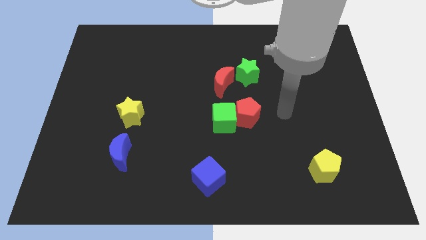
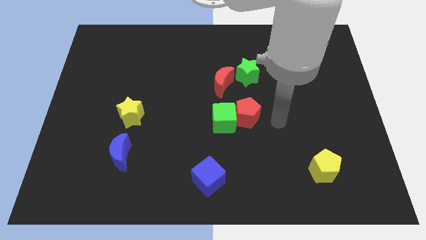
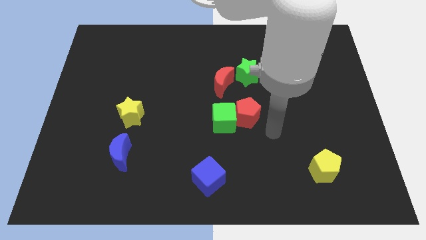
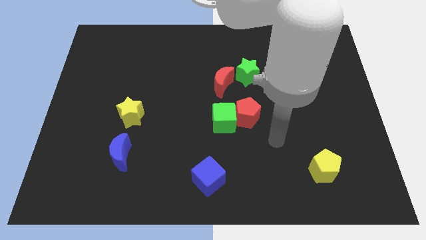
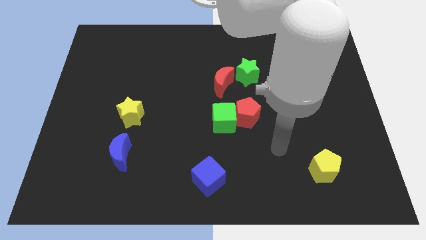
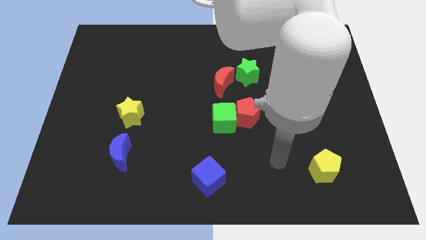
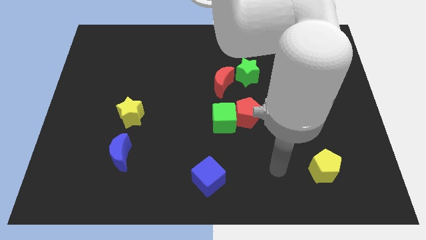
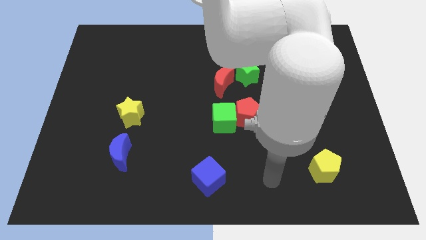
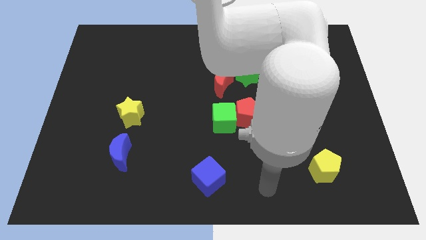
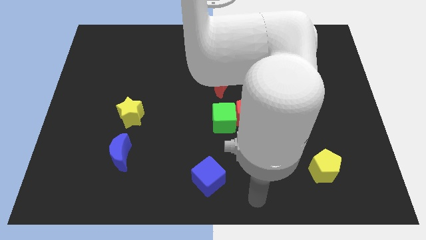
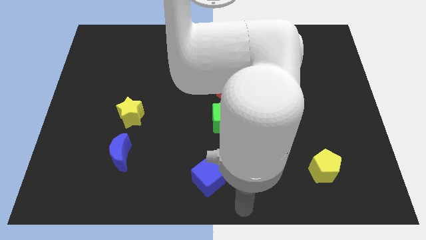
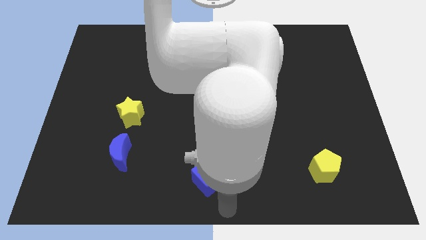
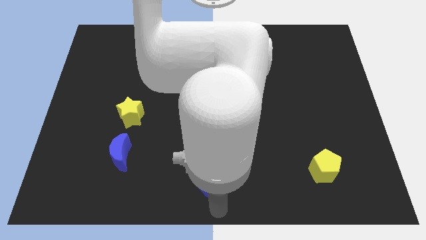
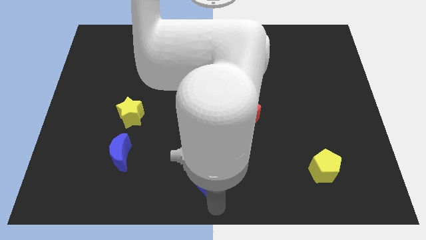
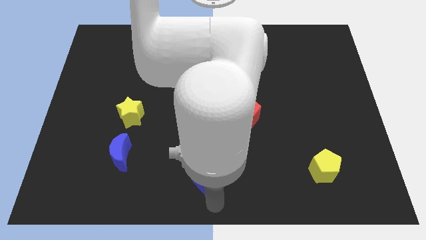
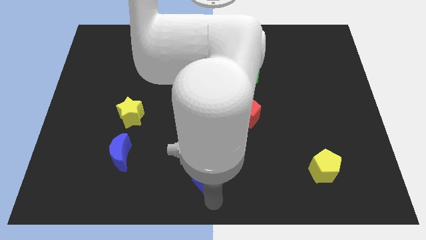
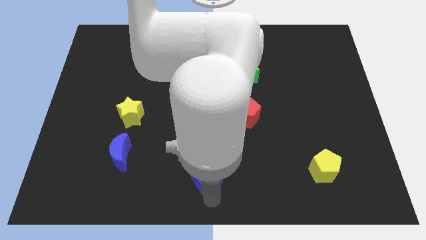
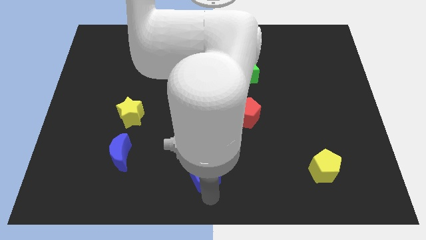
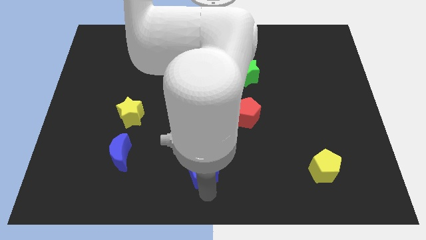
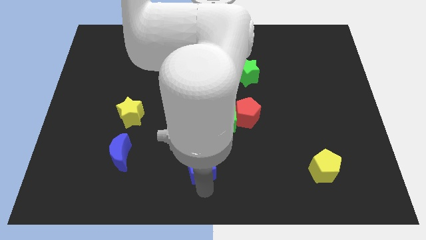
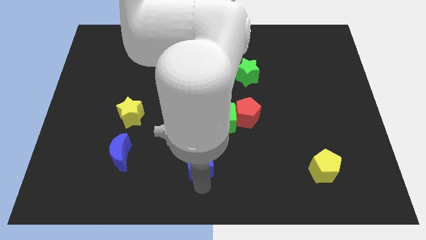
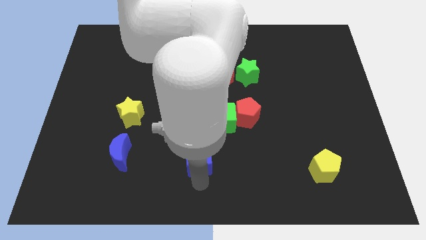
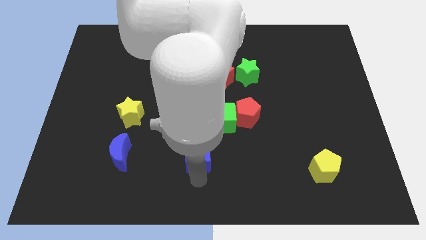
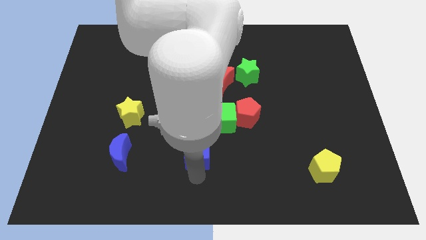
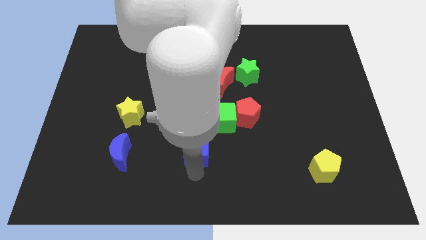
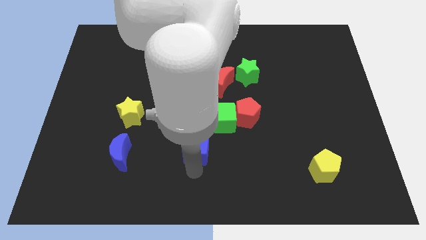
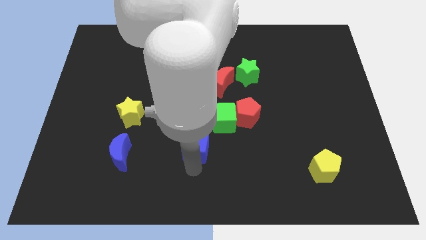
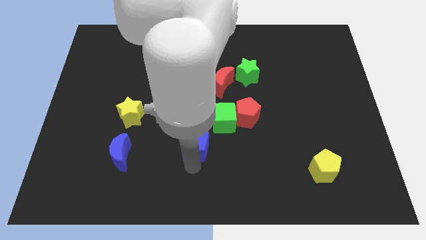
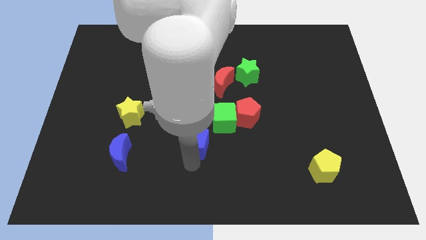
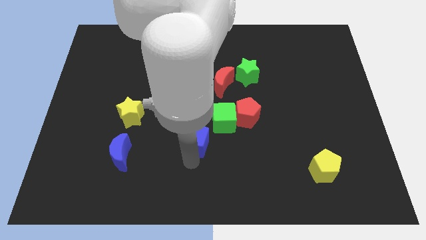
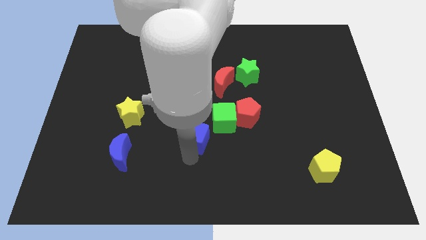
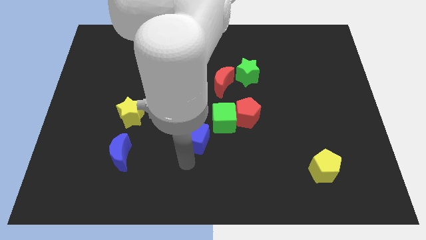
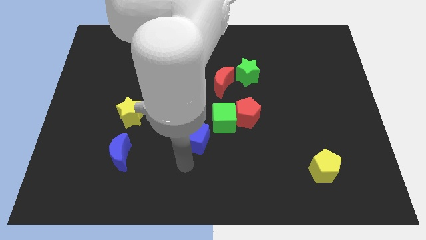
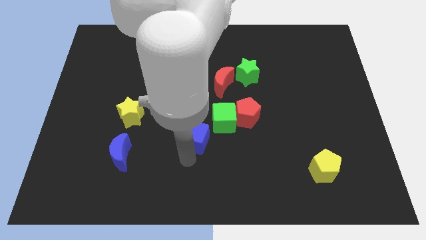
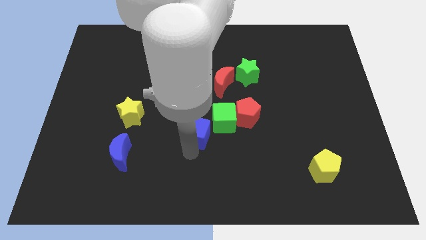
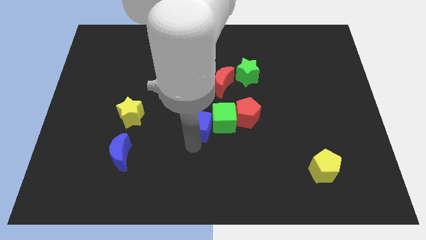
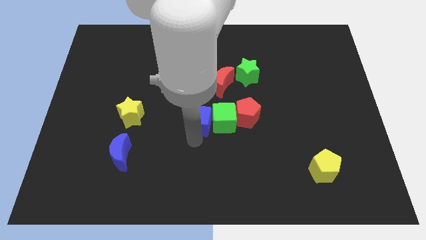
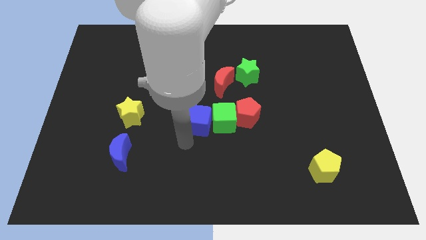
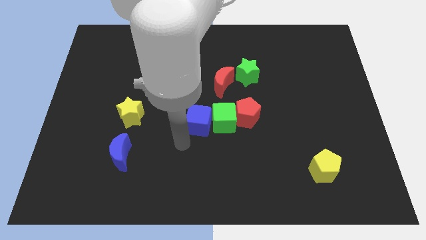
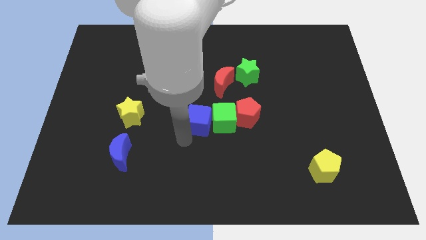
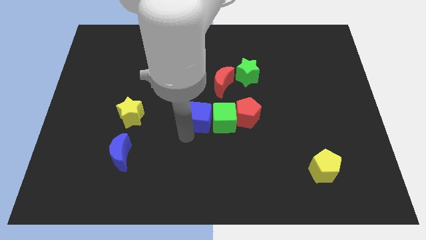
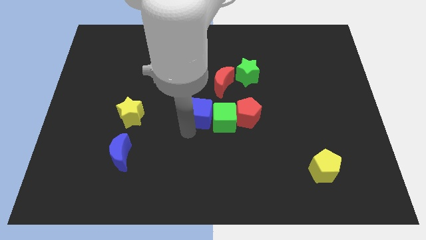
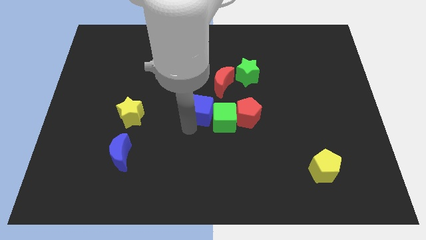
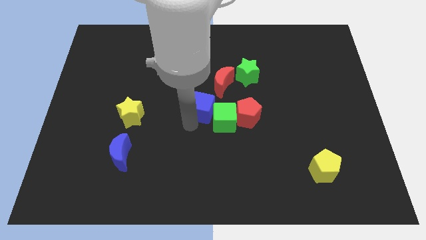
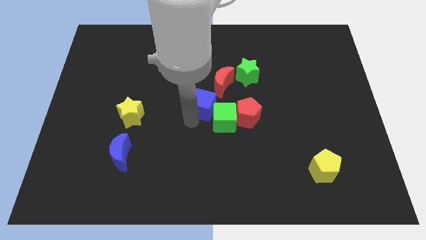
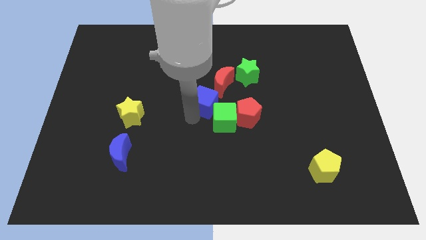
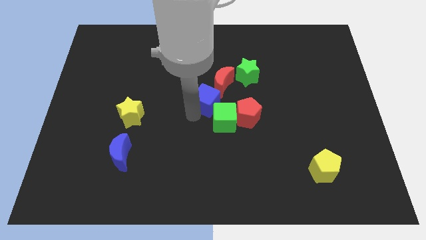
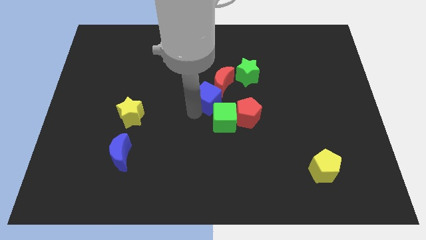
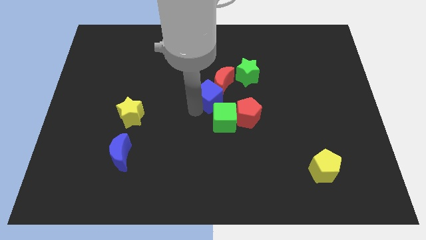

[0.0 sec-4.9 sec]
push the blue cube to the bottom left side of the green star

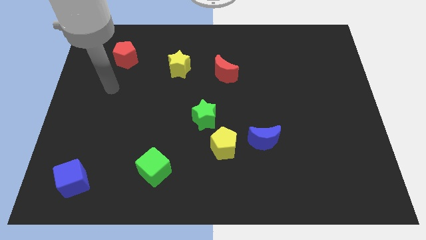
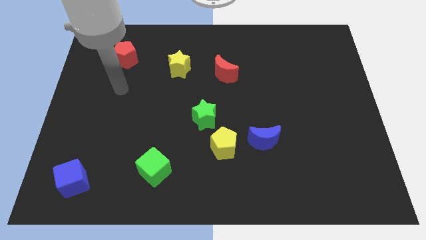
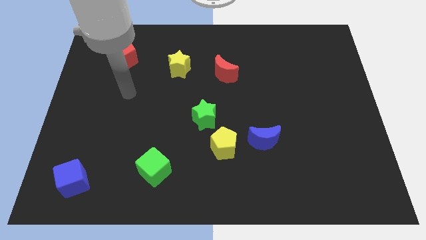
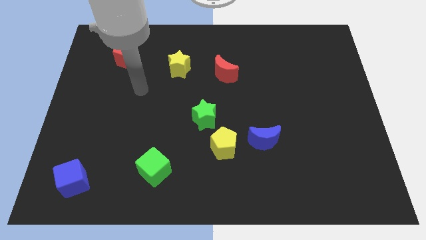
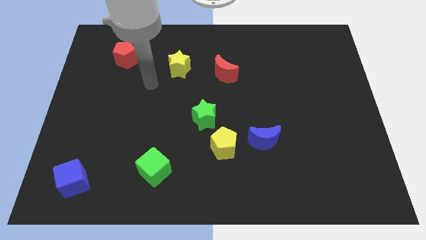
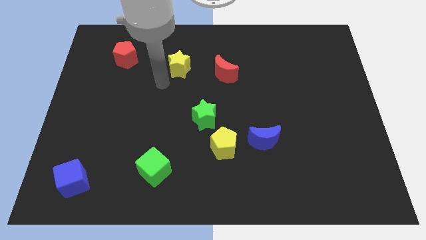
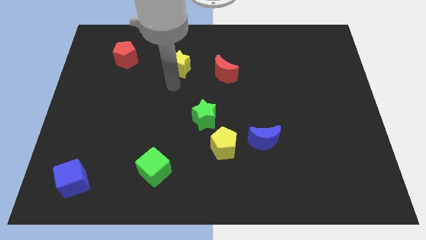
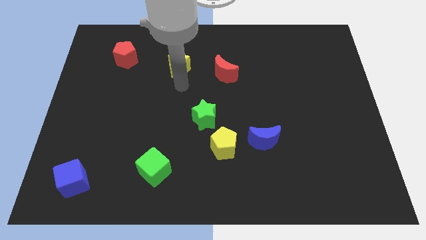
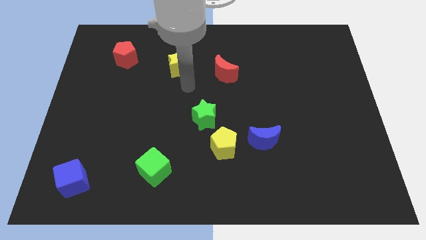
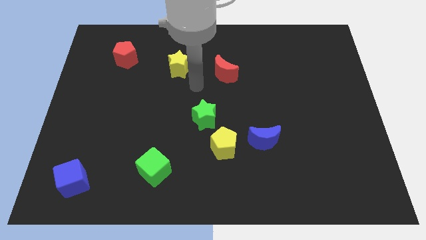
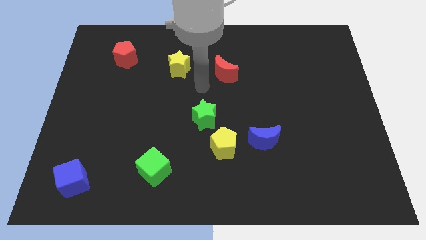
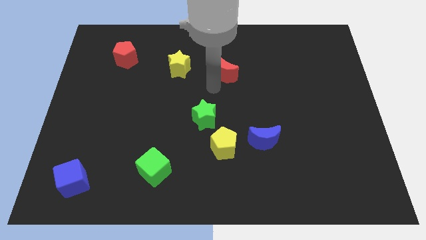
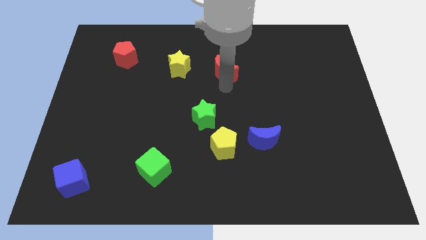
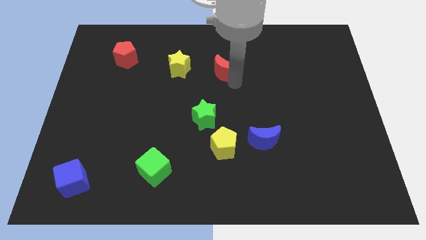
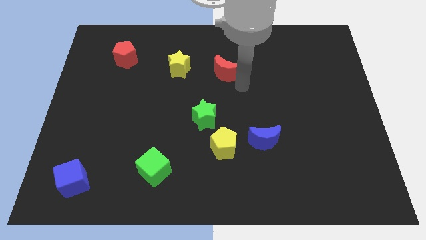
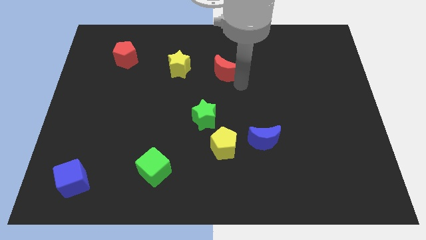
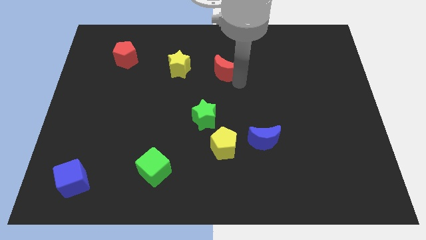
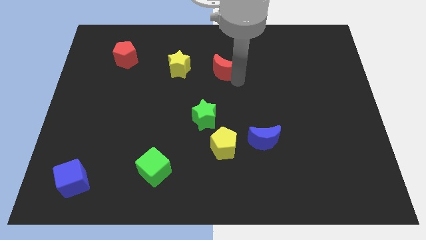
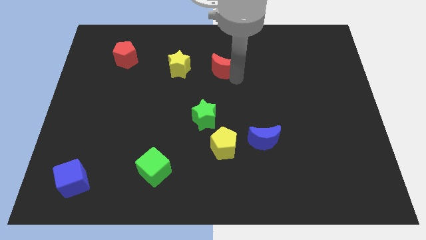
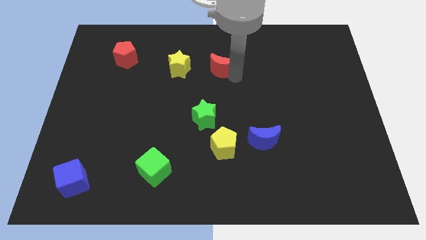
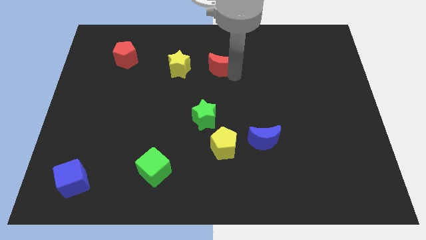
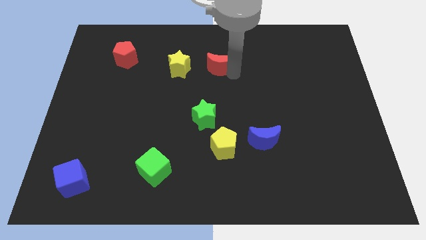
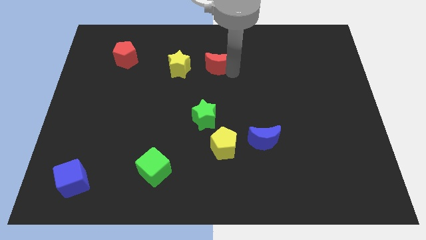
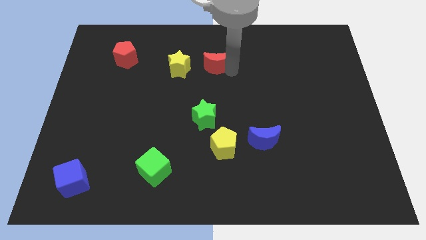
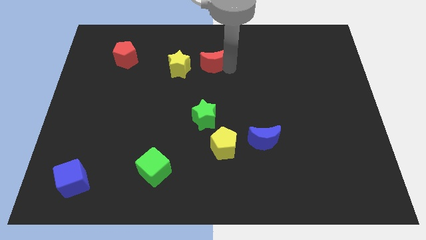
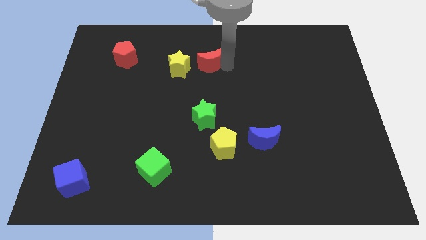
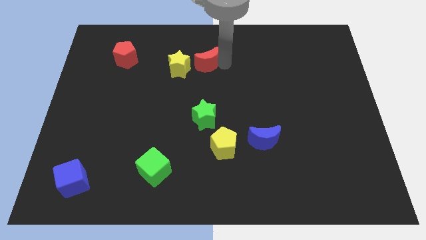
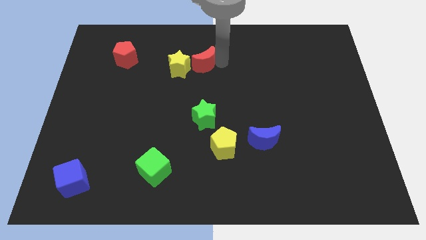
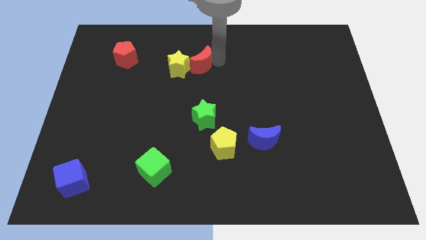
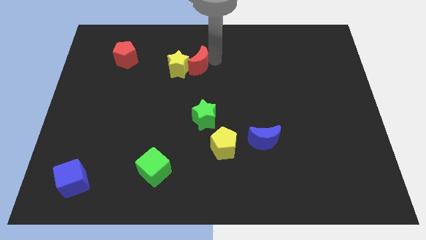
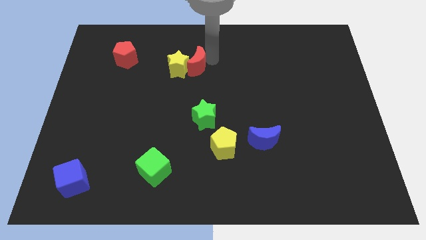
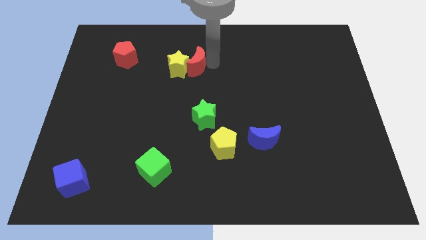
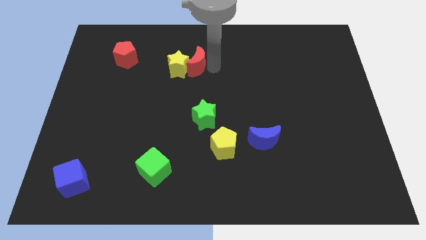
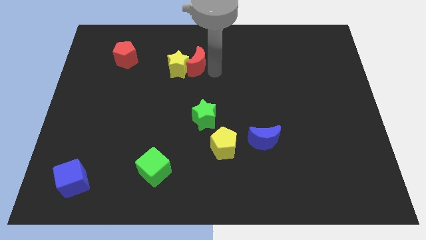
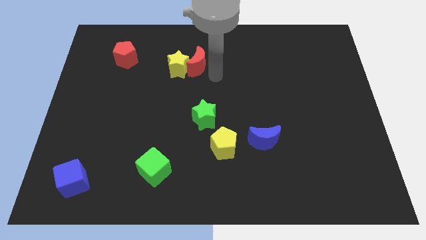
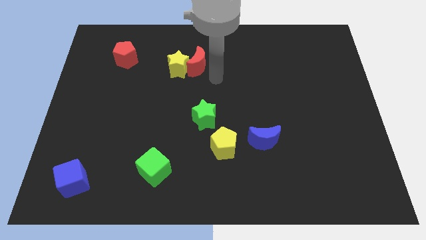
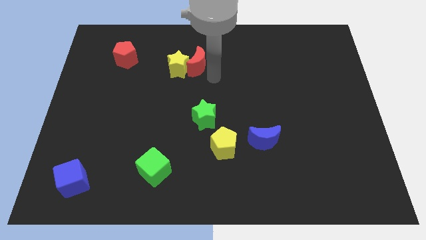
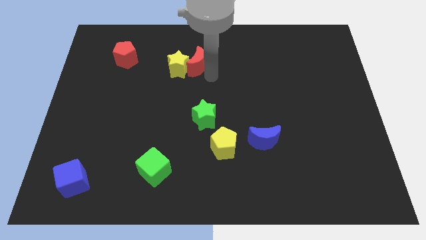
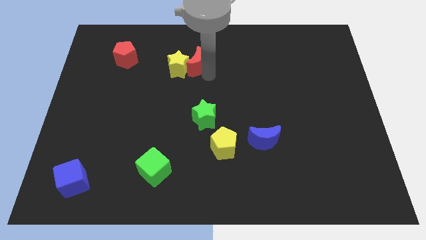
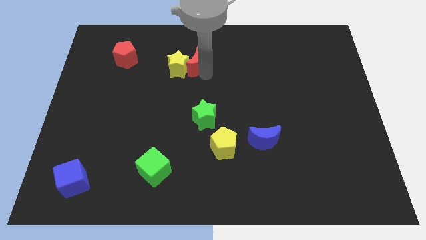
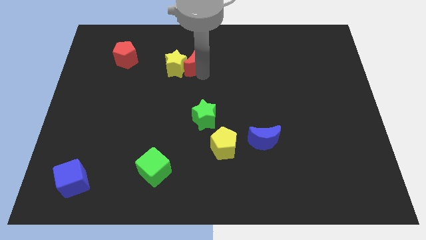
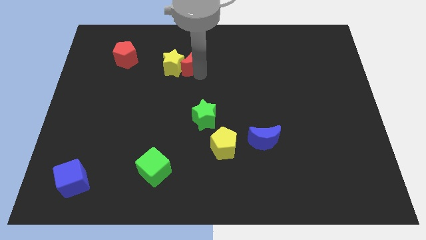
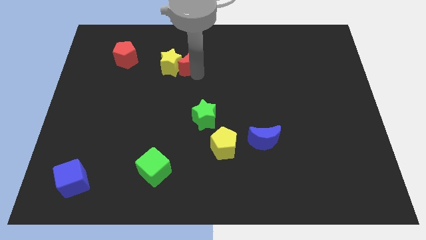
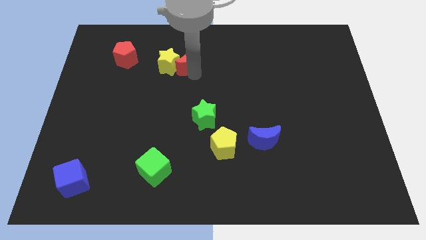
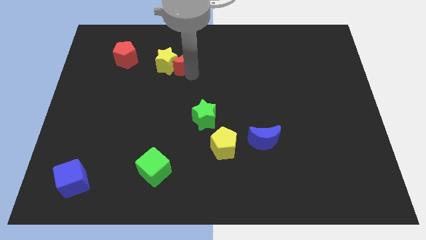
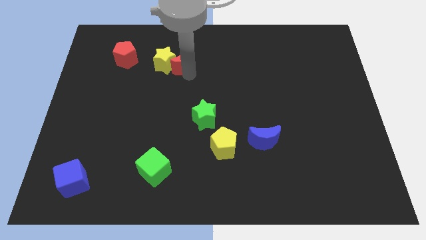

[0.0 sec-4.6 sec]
slide the red moon to the right of the red pentagon
